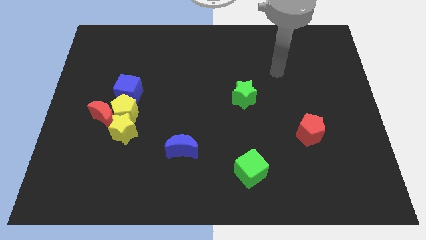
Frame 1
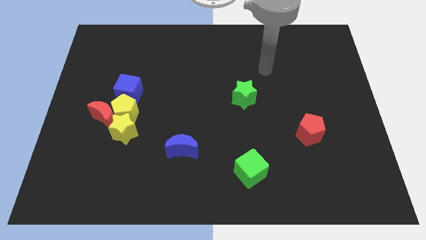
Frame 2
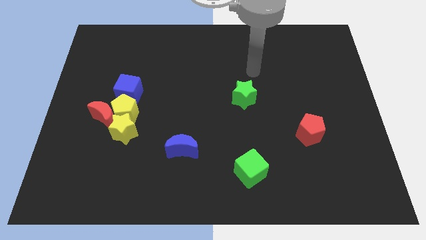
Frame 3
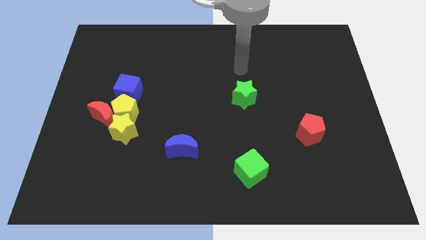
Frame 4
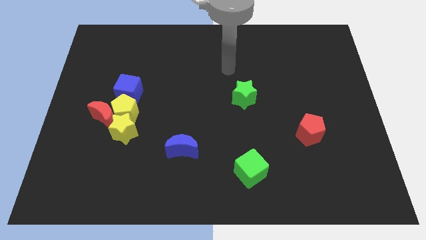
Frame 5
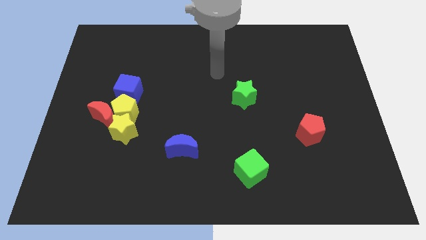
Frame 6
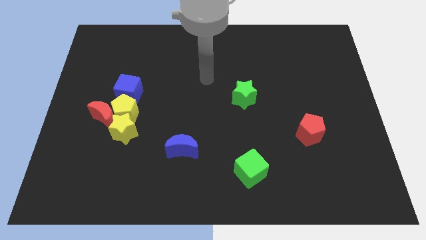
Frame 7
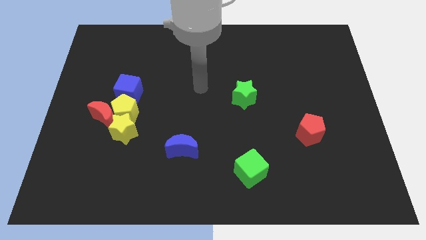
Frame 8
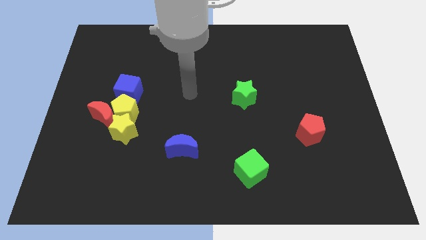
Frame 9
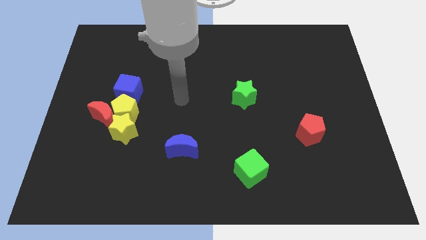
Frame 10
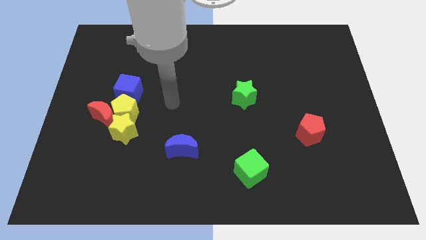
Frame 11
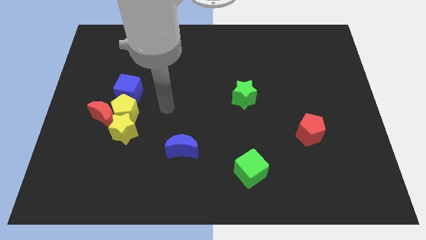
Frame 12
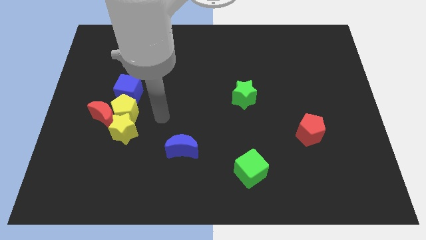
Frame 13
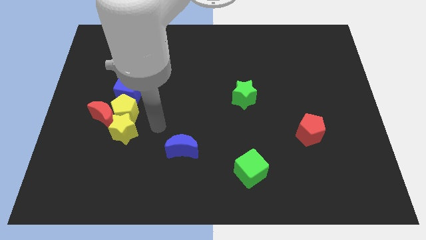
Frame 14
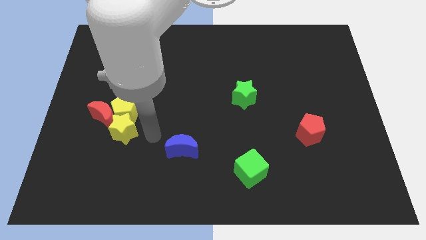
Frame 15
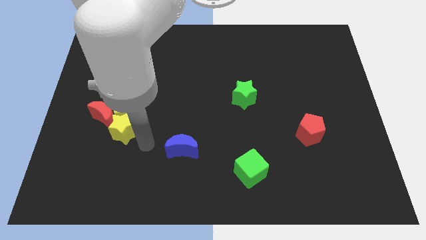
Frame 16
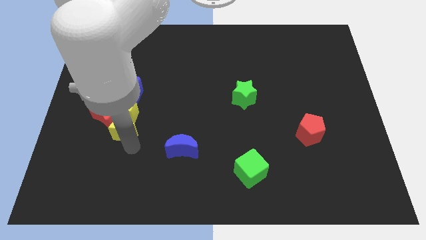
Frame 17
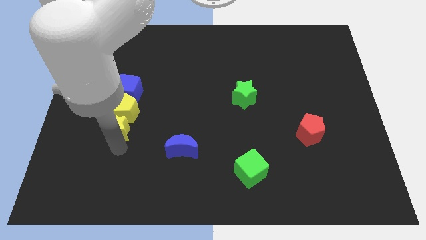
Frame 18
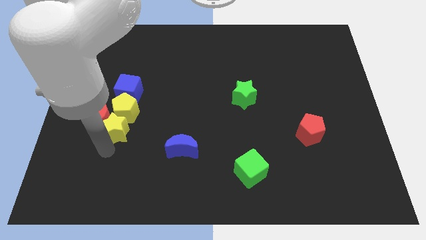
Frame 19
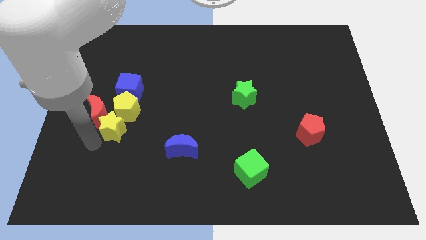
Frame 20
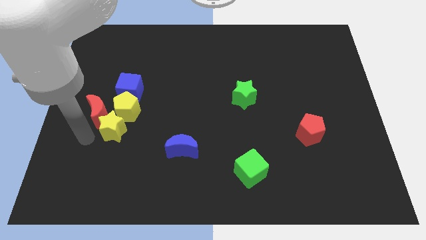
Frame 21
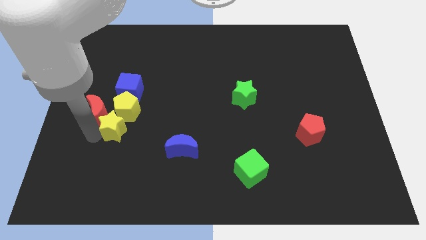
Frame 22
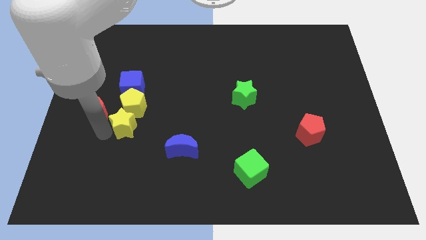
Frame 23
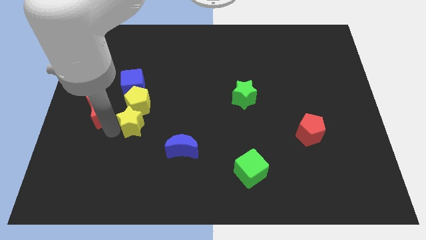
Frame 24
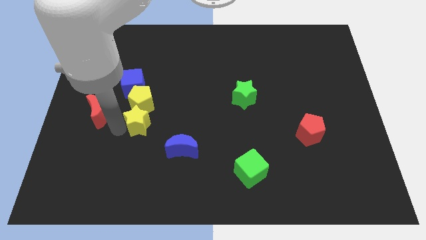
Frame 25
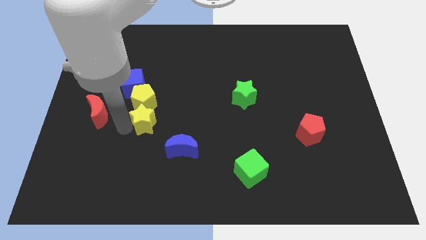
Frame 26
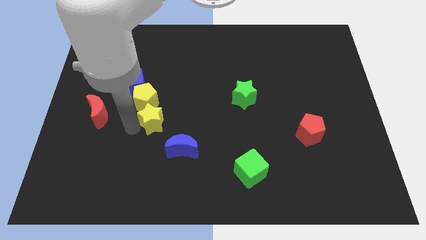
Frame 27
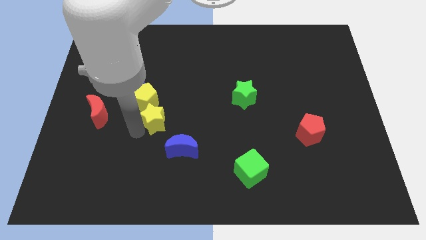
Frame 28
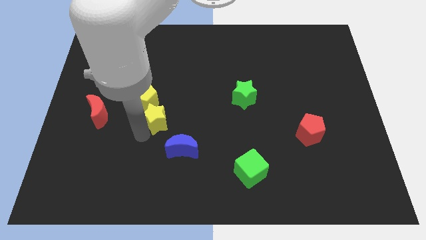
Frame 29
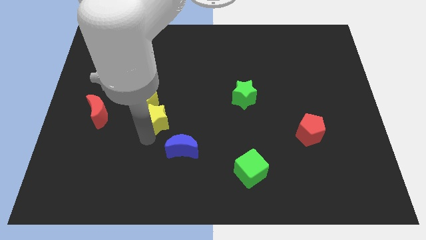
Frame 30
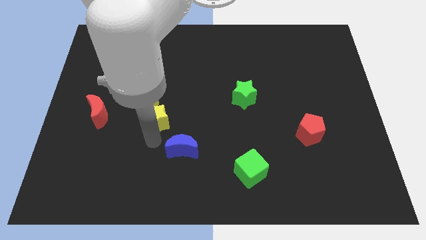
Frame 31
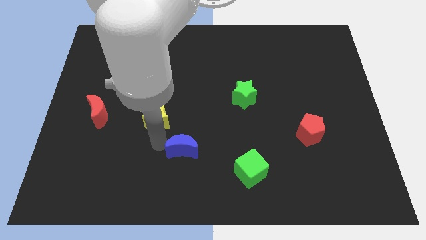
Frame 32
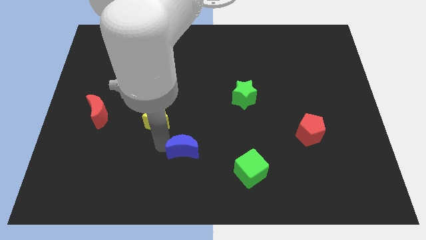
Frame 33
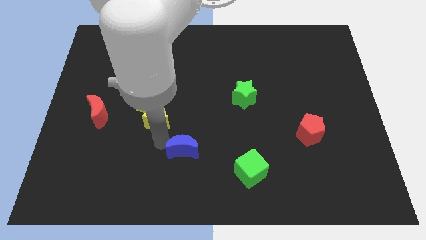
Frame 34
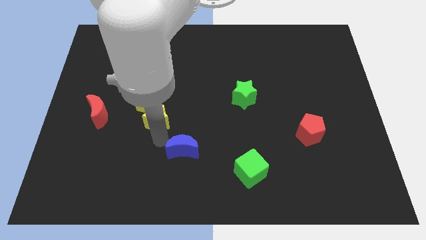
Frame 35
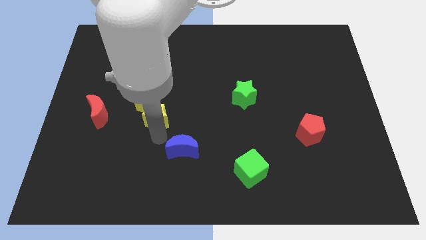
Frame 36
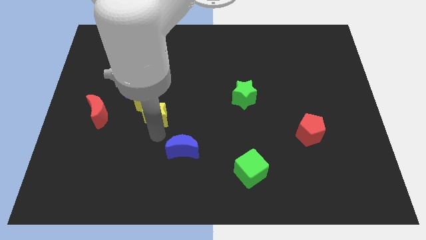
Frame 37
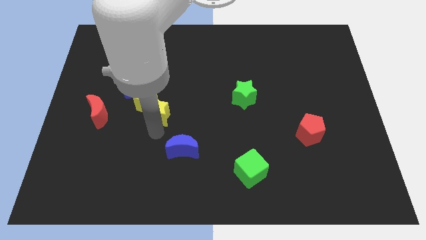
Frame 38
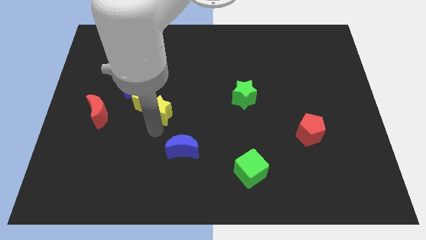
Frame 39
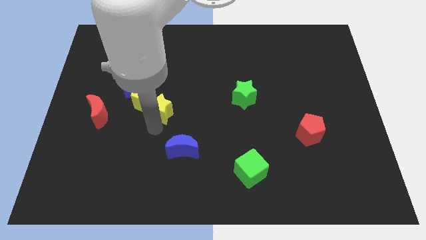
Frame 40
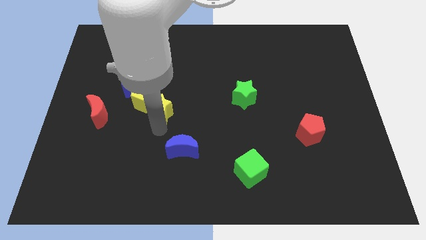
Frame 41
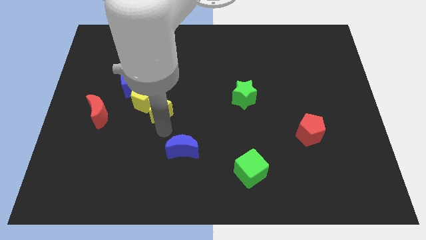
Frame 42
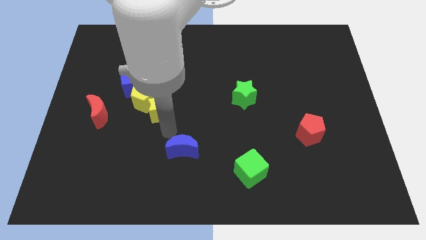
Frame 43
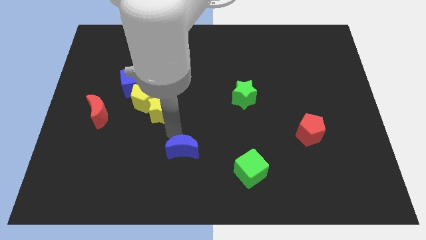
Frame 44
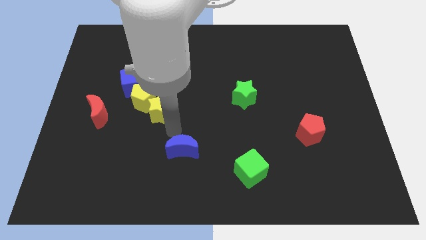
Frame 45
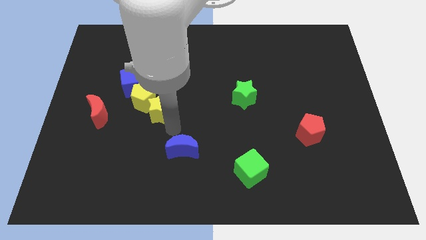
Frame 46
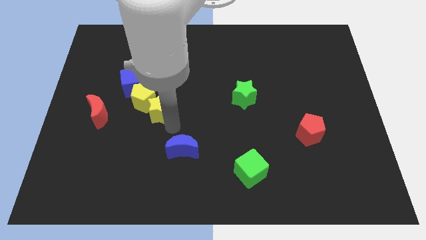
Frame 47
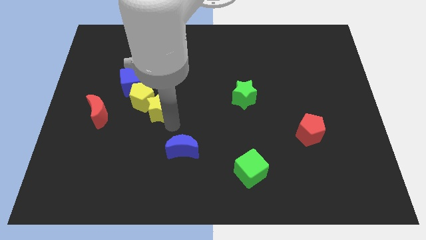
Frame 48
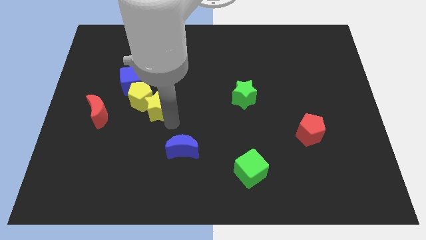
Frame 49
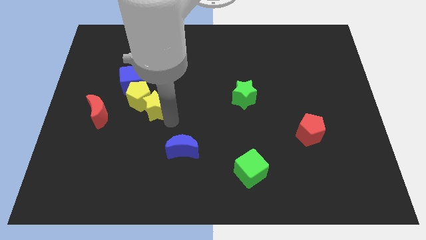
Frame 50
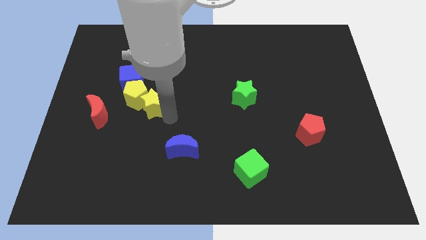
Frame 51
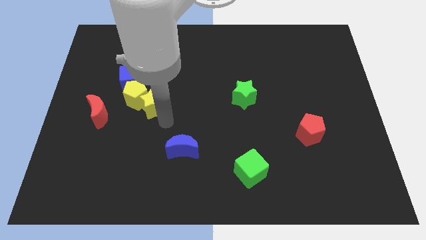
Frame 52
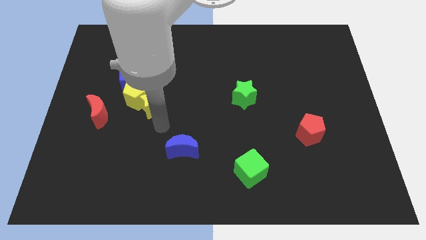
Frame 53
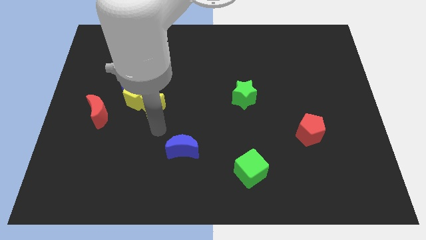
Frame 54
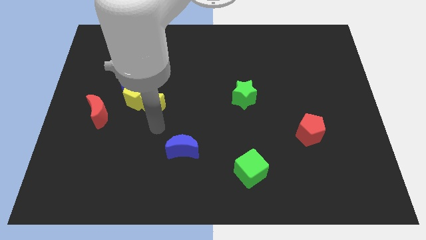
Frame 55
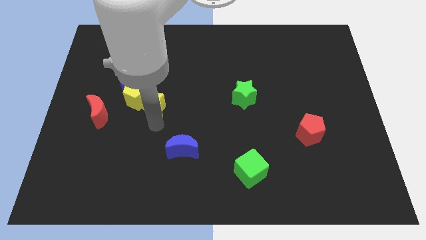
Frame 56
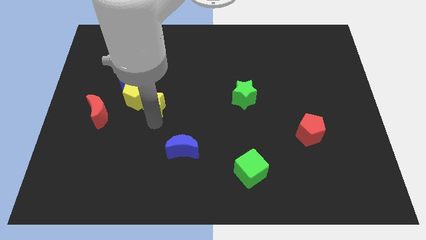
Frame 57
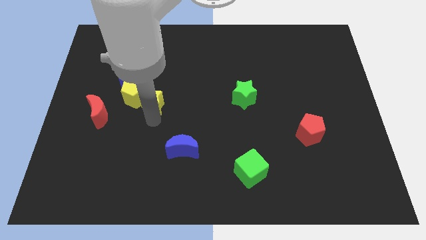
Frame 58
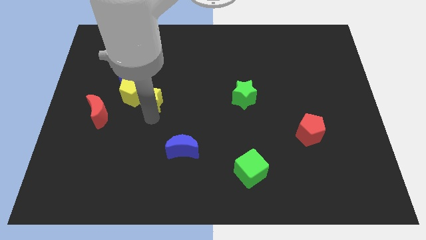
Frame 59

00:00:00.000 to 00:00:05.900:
slightly move the yellow star upwards

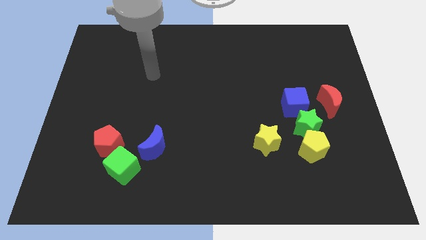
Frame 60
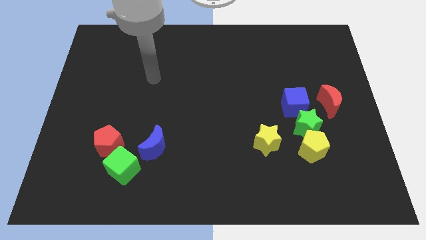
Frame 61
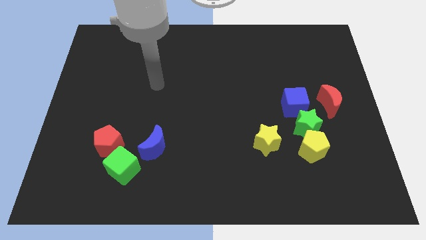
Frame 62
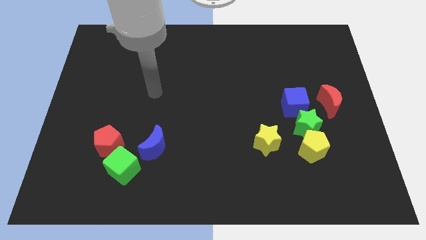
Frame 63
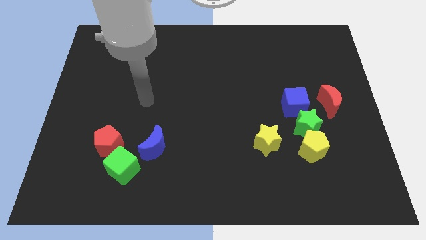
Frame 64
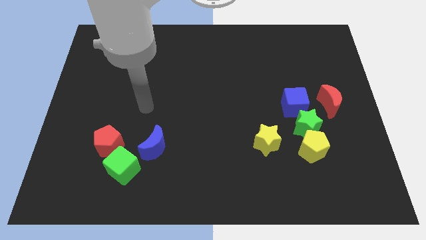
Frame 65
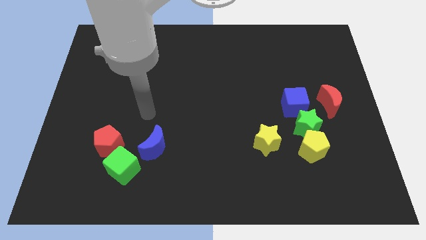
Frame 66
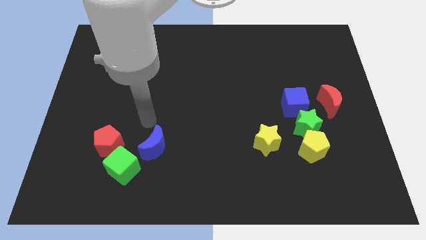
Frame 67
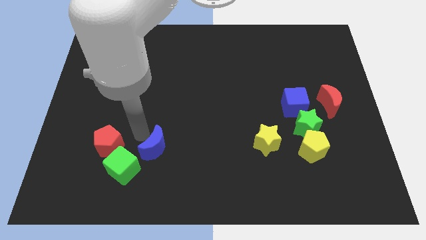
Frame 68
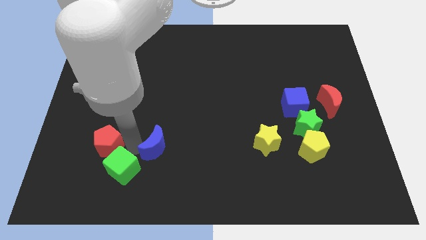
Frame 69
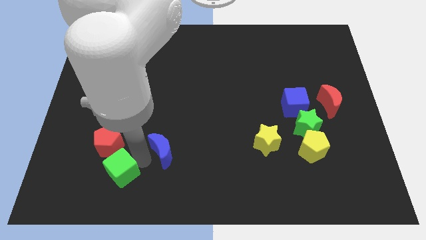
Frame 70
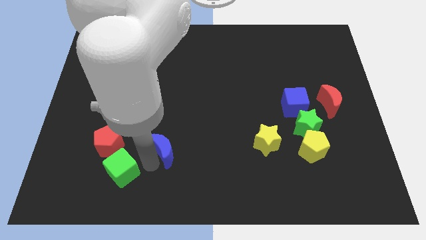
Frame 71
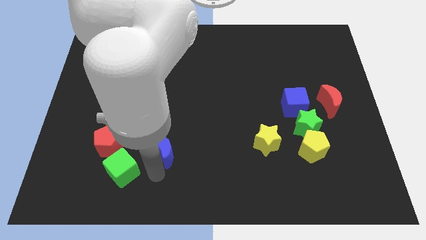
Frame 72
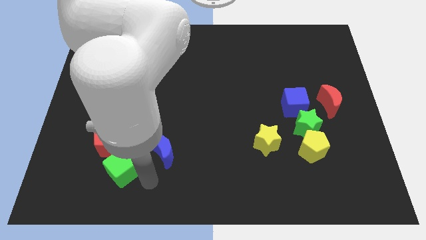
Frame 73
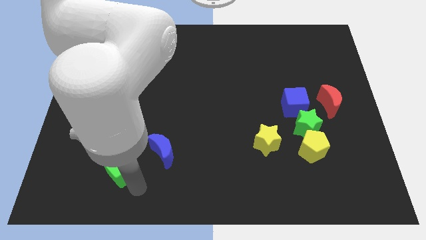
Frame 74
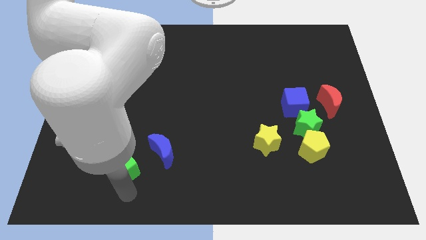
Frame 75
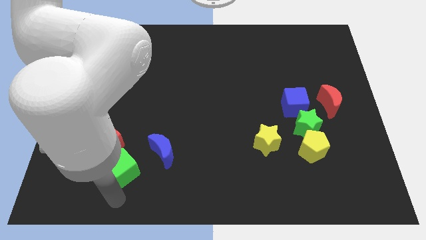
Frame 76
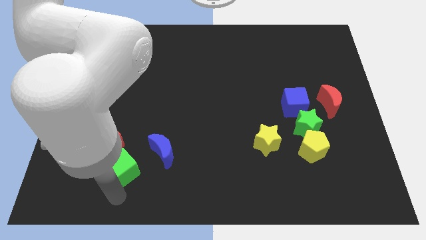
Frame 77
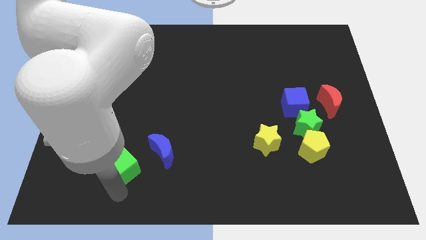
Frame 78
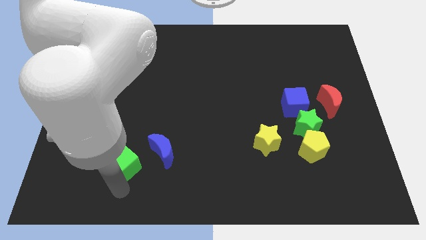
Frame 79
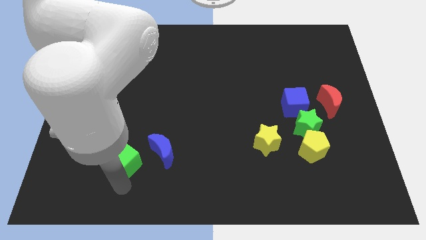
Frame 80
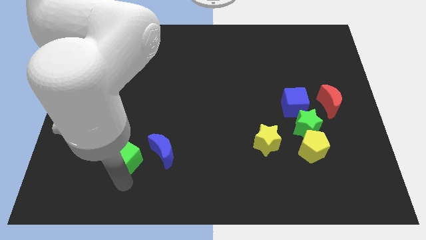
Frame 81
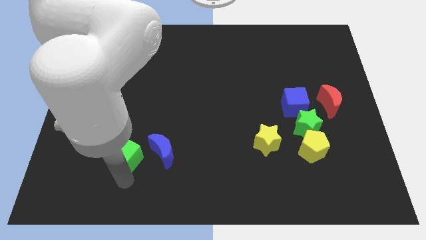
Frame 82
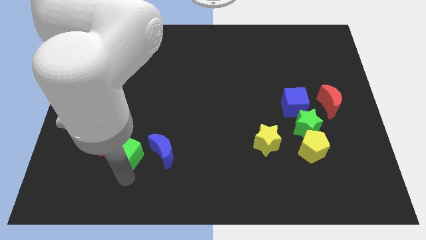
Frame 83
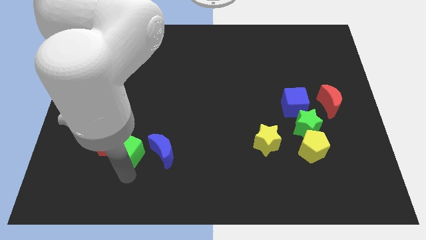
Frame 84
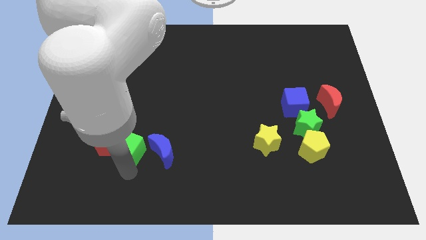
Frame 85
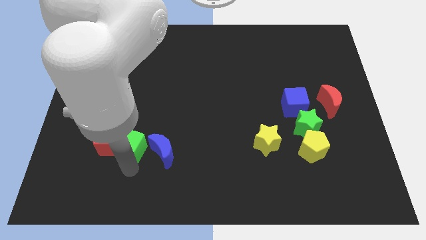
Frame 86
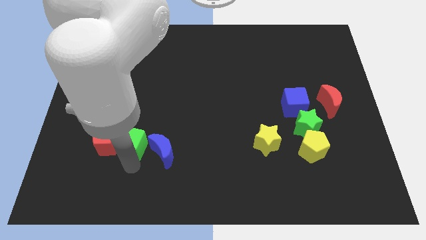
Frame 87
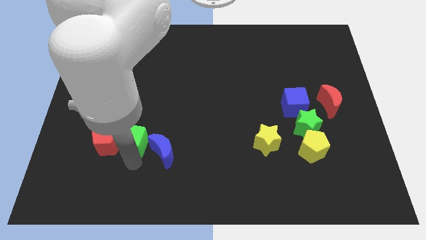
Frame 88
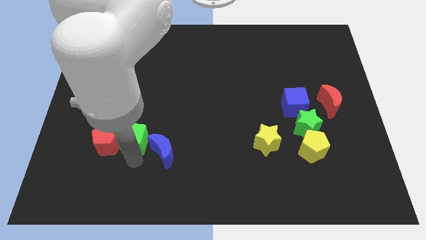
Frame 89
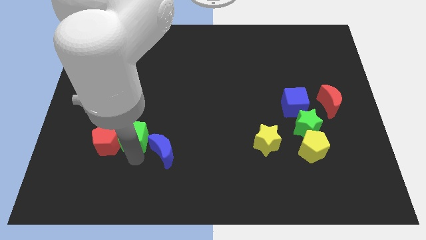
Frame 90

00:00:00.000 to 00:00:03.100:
slide the green cube a little upwards
